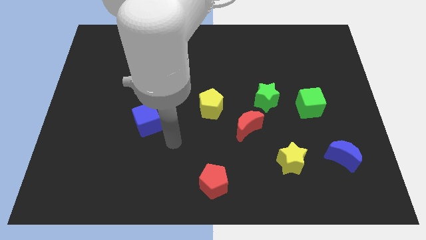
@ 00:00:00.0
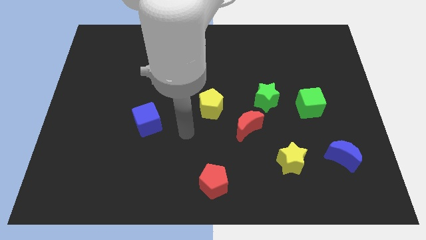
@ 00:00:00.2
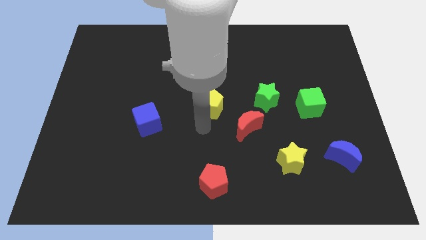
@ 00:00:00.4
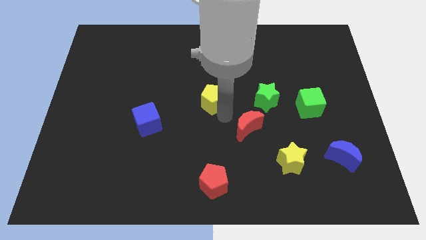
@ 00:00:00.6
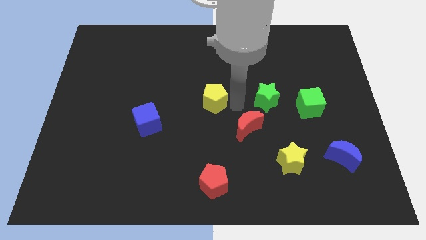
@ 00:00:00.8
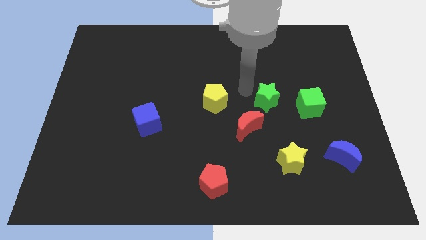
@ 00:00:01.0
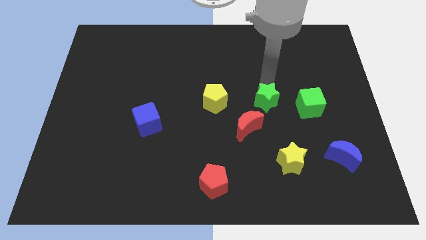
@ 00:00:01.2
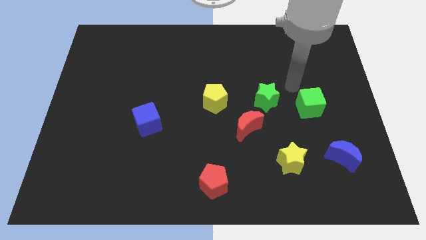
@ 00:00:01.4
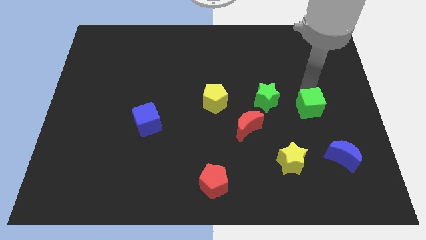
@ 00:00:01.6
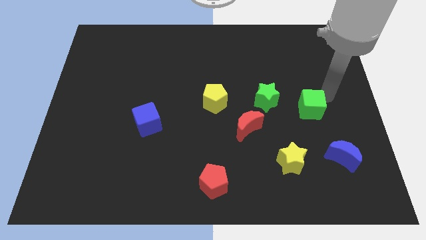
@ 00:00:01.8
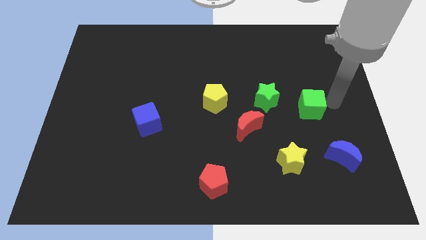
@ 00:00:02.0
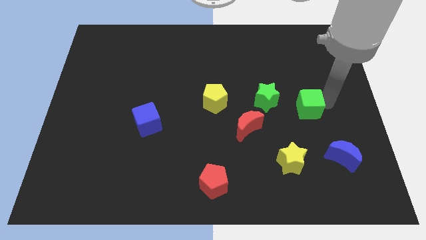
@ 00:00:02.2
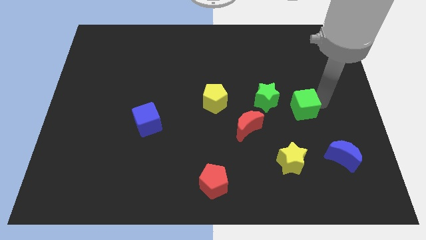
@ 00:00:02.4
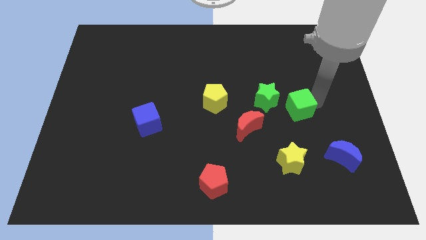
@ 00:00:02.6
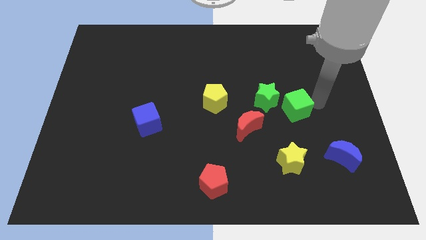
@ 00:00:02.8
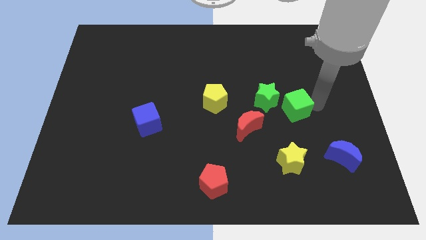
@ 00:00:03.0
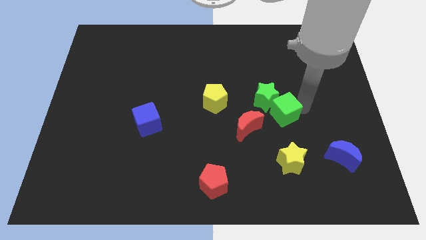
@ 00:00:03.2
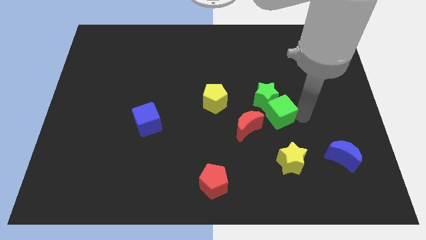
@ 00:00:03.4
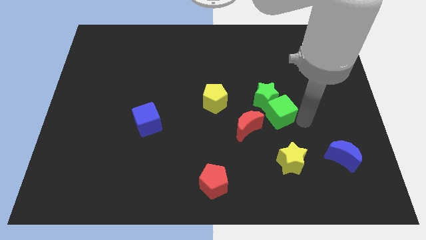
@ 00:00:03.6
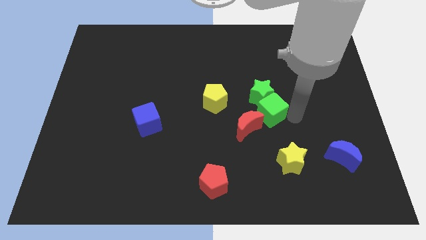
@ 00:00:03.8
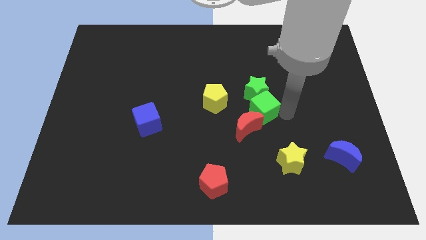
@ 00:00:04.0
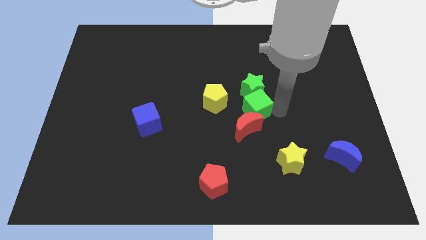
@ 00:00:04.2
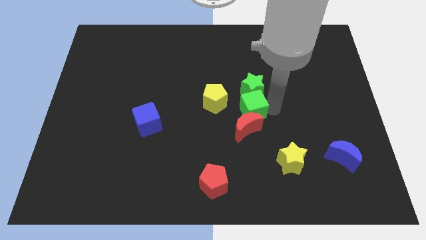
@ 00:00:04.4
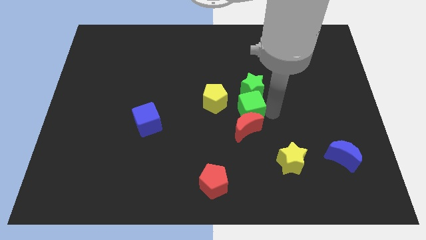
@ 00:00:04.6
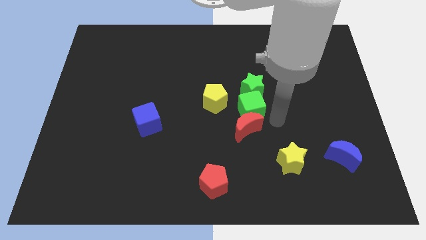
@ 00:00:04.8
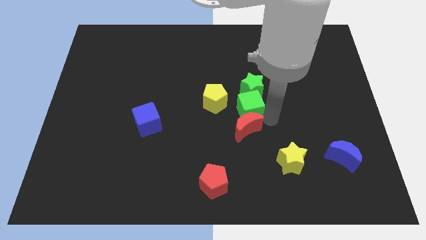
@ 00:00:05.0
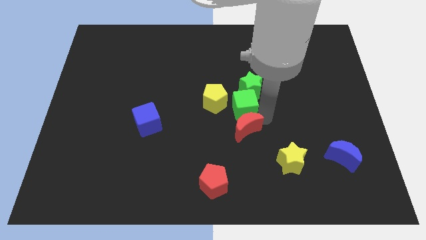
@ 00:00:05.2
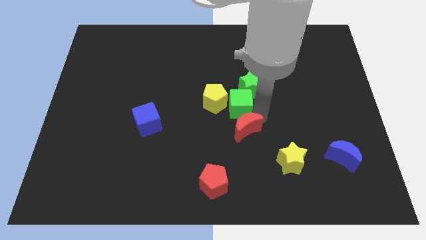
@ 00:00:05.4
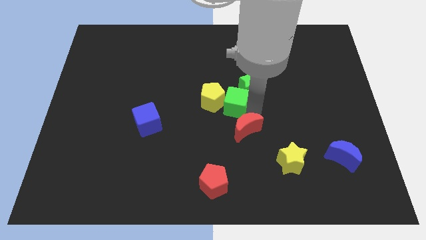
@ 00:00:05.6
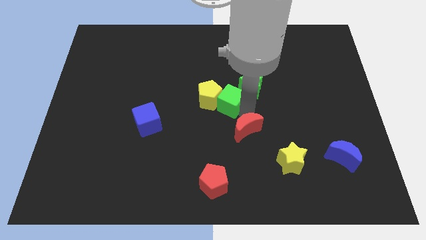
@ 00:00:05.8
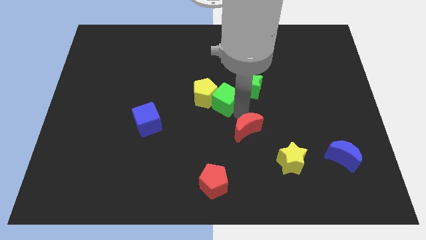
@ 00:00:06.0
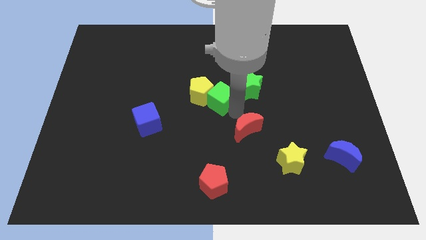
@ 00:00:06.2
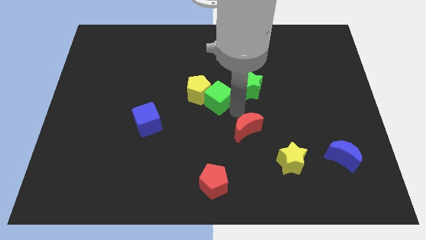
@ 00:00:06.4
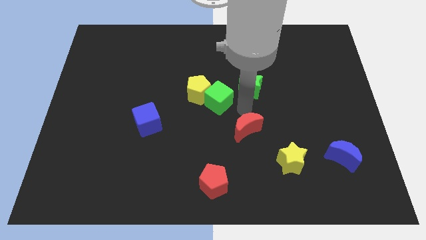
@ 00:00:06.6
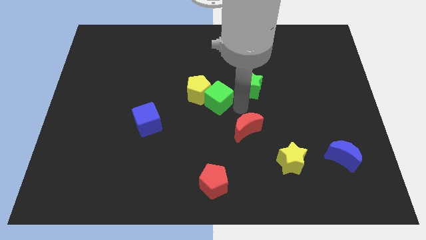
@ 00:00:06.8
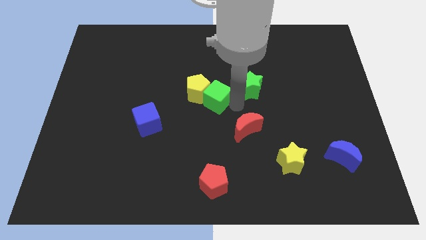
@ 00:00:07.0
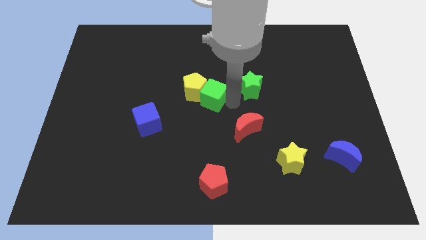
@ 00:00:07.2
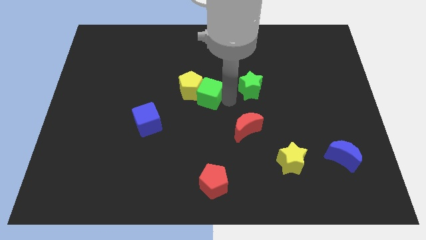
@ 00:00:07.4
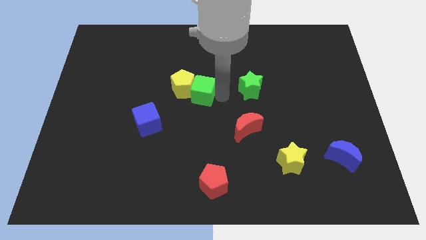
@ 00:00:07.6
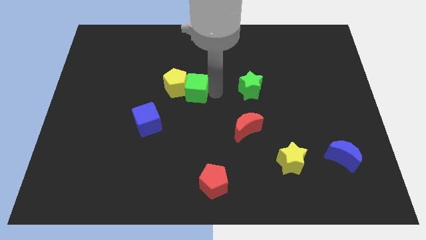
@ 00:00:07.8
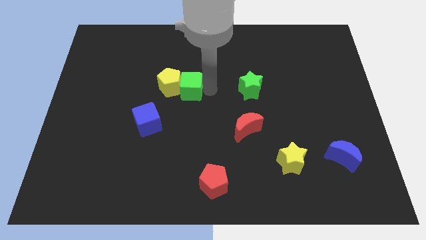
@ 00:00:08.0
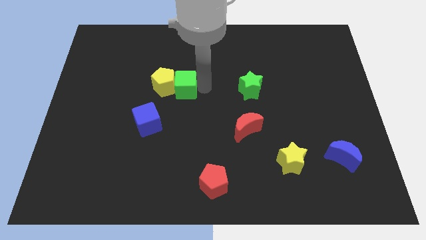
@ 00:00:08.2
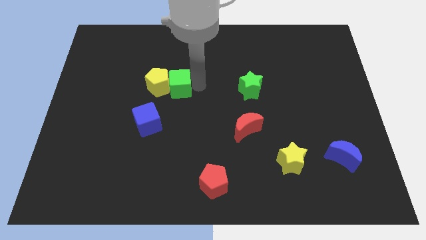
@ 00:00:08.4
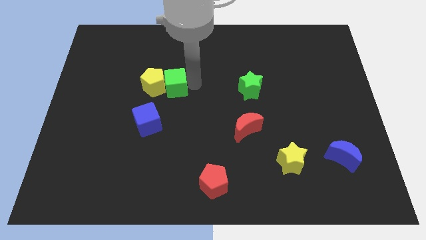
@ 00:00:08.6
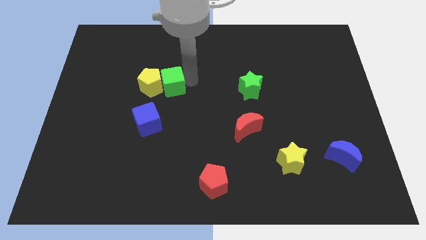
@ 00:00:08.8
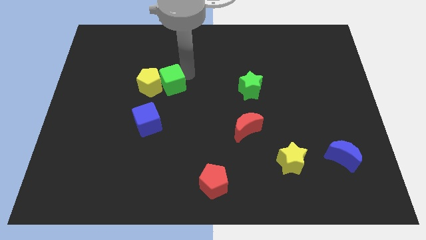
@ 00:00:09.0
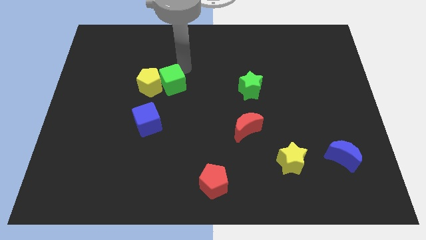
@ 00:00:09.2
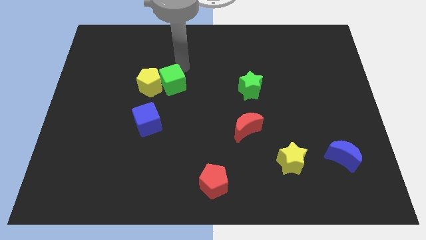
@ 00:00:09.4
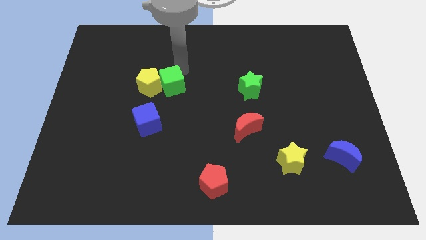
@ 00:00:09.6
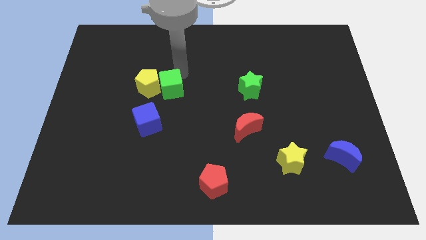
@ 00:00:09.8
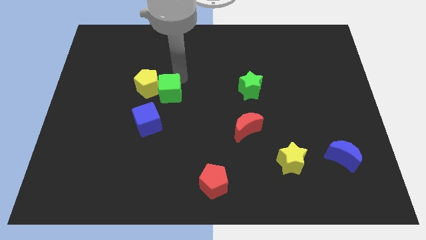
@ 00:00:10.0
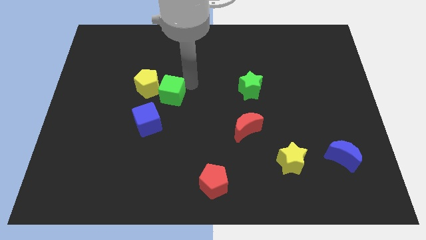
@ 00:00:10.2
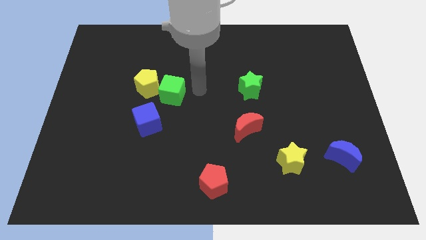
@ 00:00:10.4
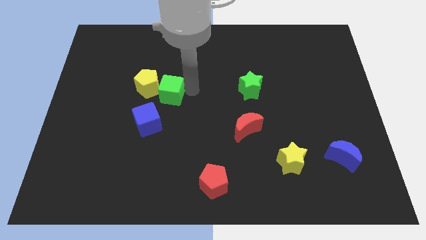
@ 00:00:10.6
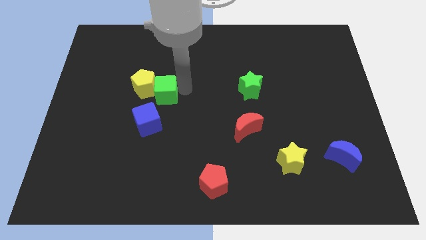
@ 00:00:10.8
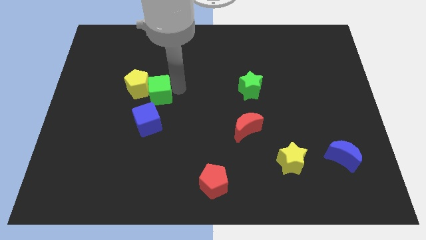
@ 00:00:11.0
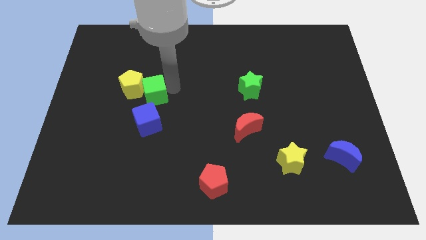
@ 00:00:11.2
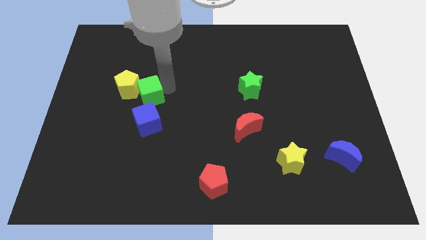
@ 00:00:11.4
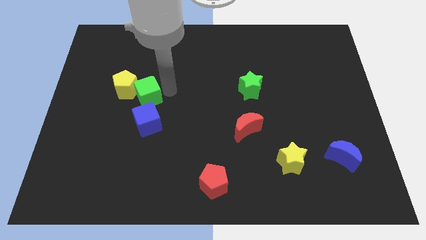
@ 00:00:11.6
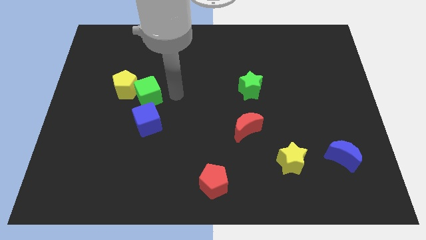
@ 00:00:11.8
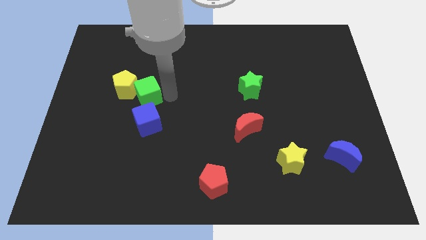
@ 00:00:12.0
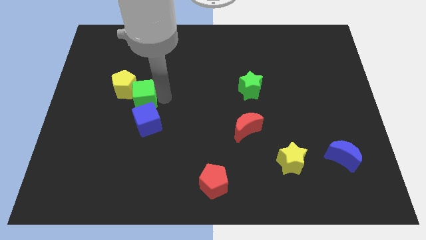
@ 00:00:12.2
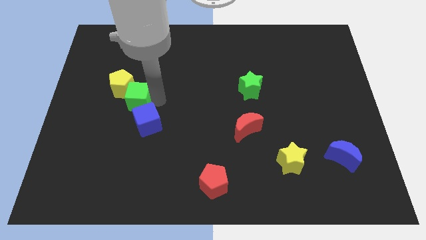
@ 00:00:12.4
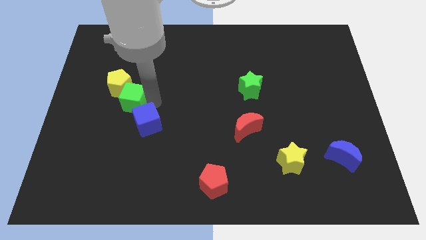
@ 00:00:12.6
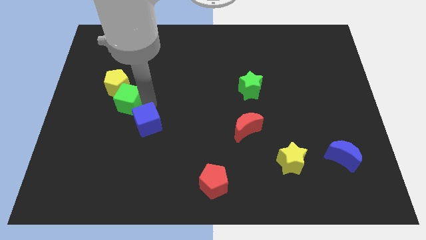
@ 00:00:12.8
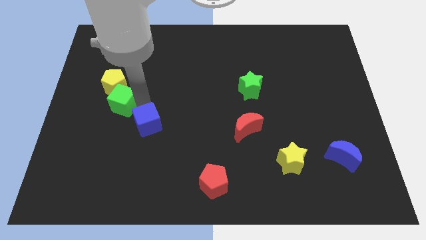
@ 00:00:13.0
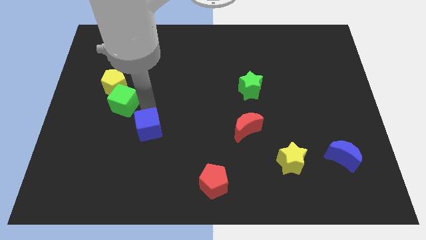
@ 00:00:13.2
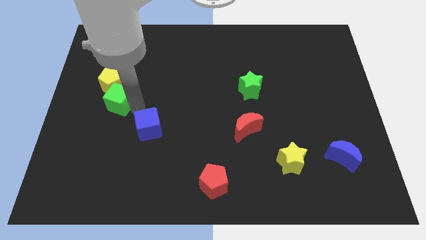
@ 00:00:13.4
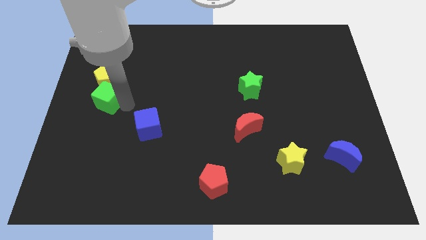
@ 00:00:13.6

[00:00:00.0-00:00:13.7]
slide the green cube to the left side
